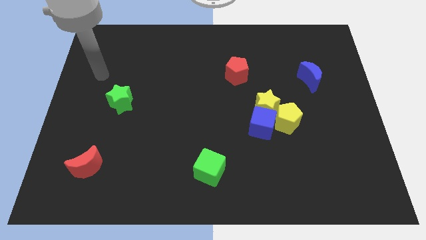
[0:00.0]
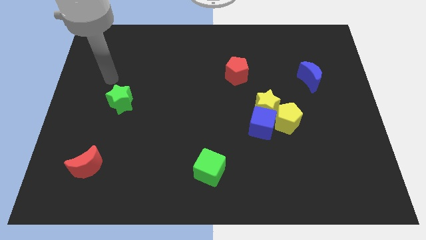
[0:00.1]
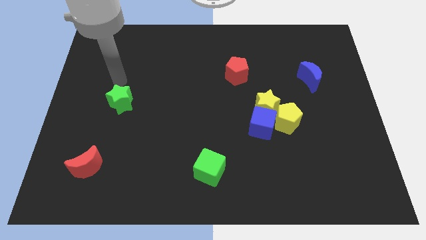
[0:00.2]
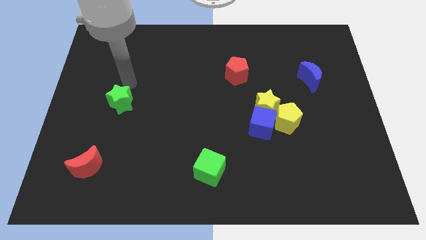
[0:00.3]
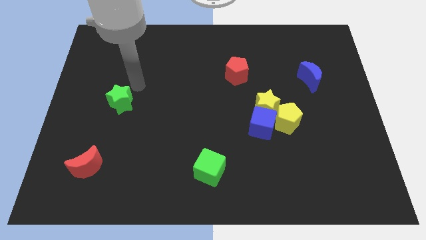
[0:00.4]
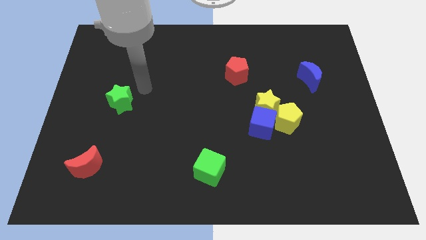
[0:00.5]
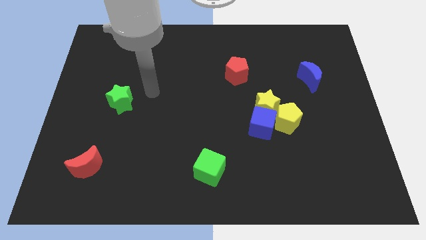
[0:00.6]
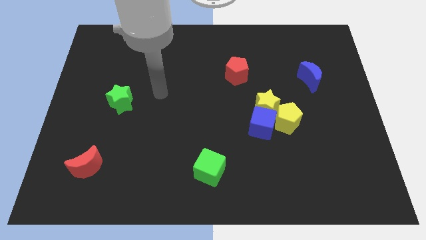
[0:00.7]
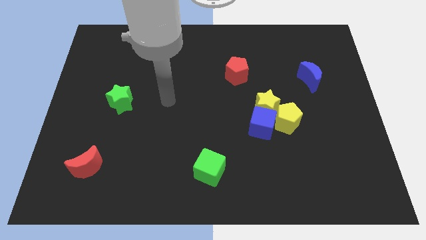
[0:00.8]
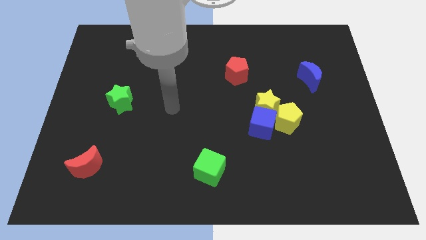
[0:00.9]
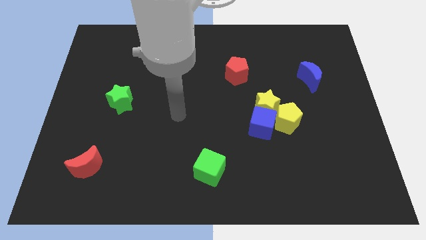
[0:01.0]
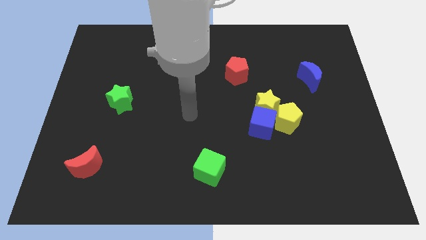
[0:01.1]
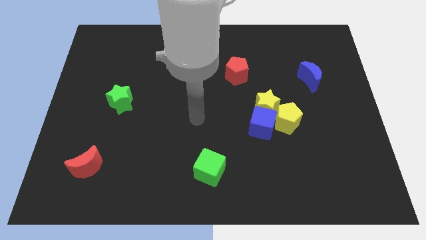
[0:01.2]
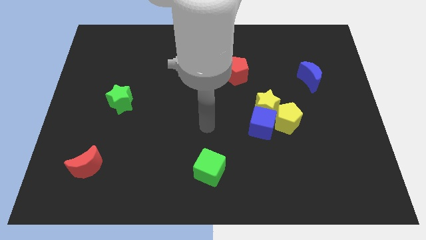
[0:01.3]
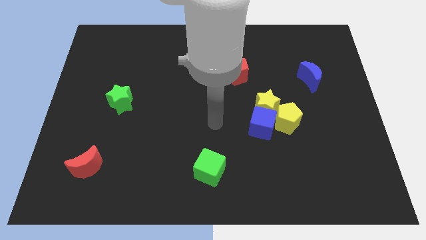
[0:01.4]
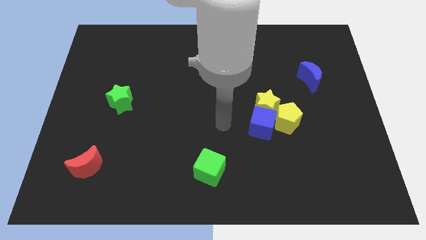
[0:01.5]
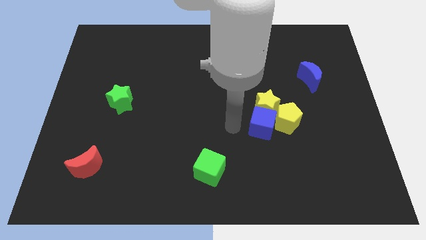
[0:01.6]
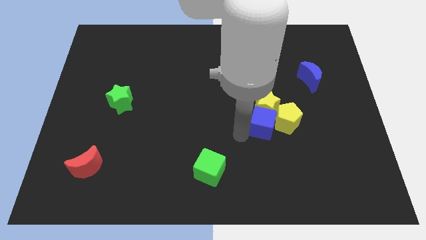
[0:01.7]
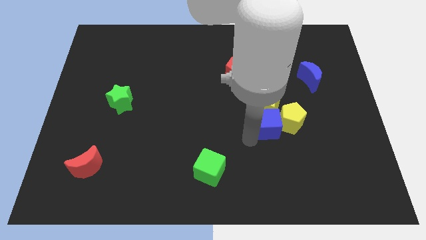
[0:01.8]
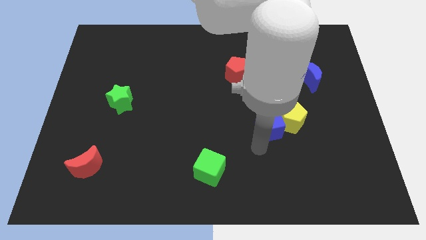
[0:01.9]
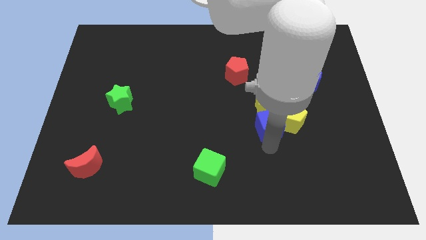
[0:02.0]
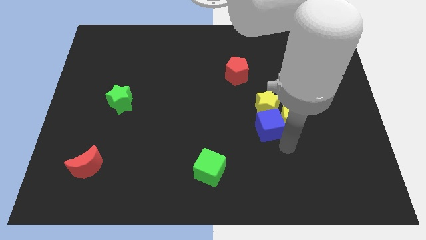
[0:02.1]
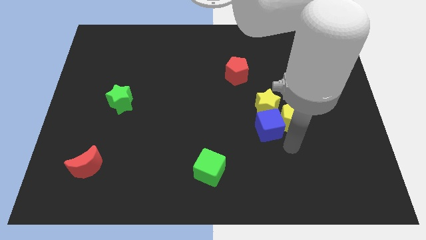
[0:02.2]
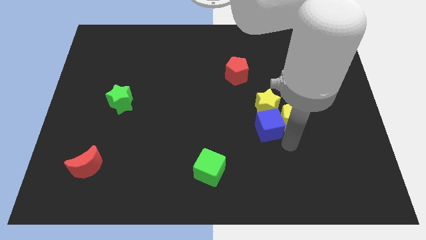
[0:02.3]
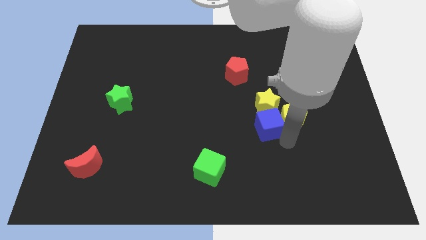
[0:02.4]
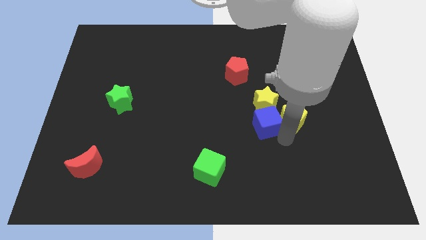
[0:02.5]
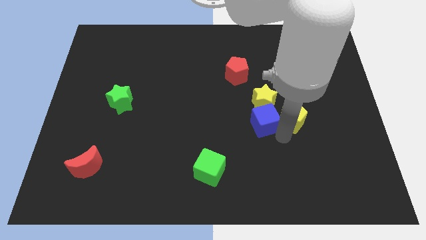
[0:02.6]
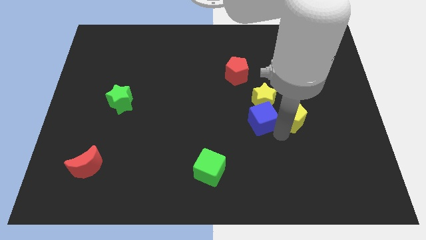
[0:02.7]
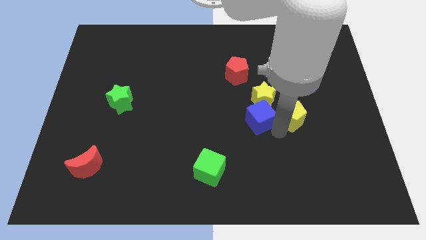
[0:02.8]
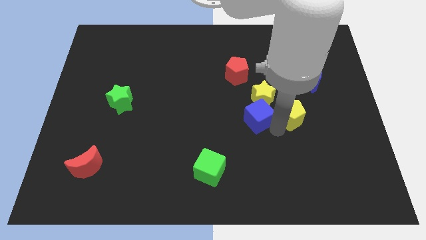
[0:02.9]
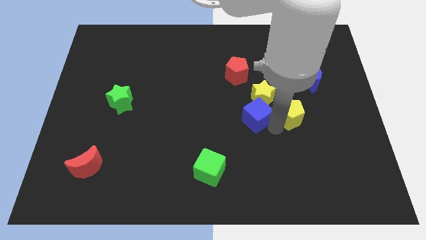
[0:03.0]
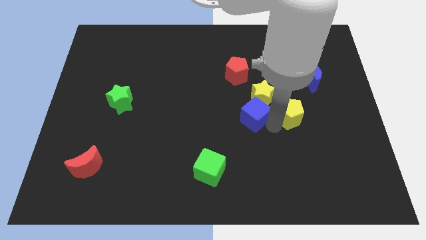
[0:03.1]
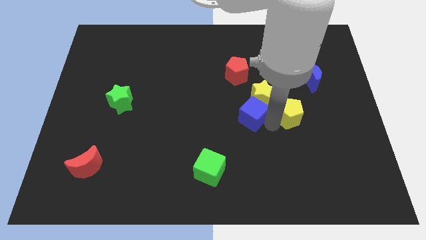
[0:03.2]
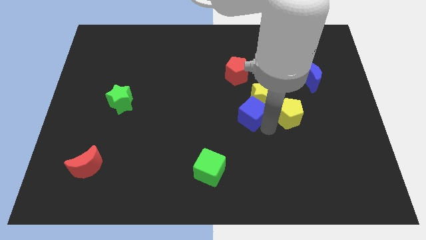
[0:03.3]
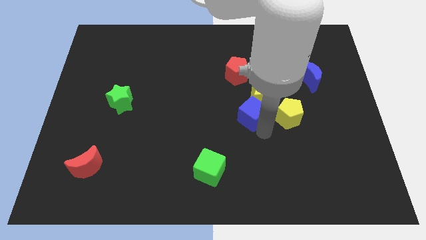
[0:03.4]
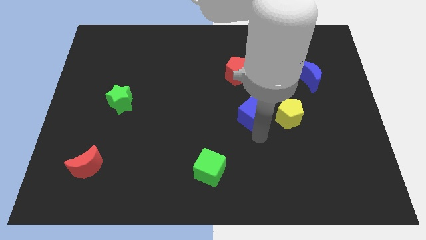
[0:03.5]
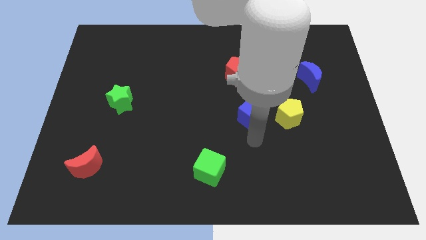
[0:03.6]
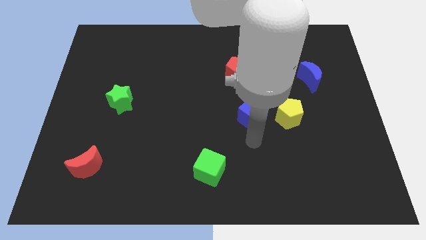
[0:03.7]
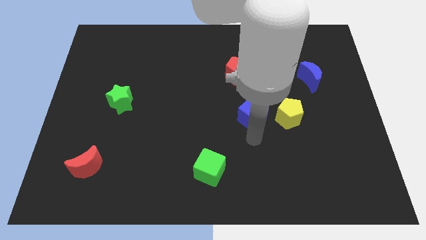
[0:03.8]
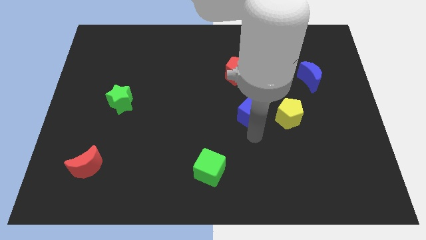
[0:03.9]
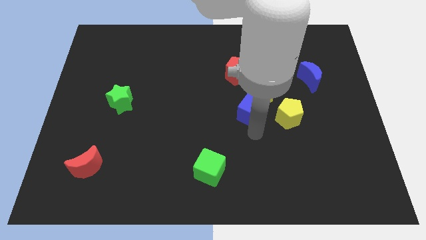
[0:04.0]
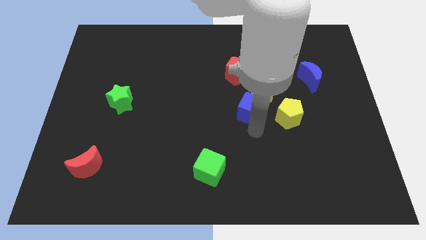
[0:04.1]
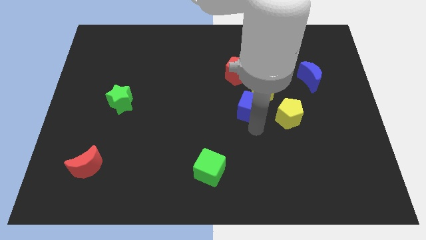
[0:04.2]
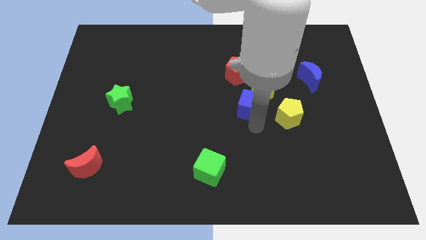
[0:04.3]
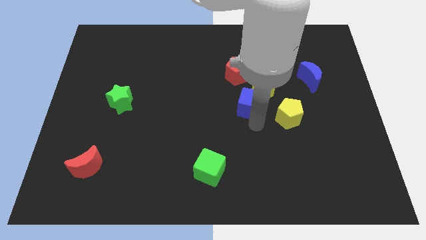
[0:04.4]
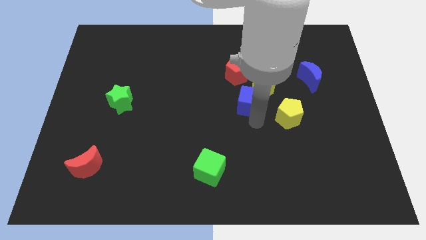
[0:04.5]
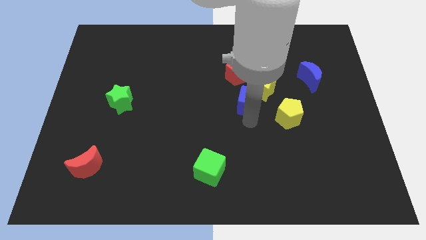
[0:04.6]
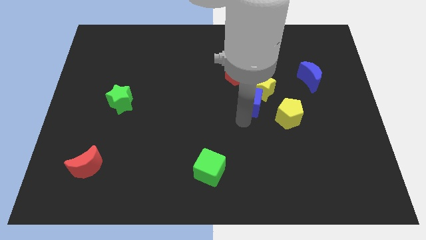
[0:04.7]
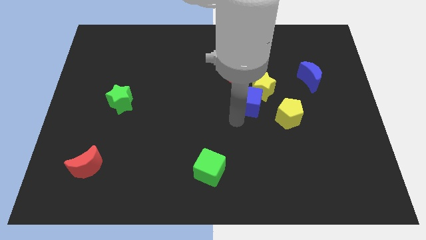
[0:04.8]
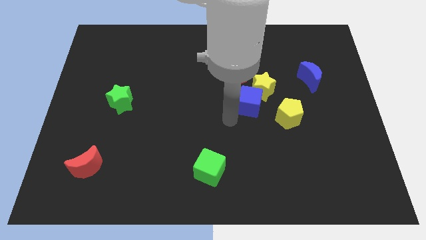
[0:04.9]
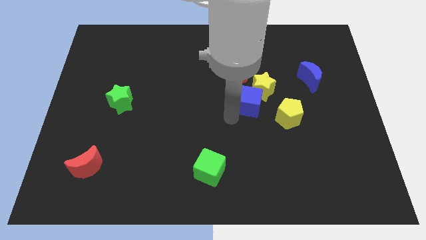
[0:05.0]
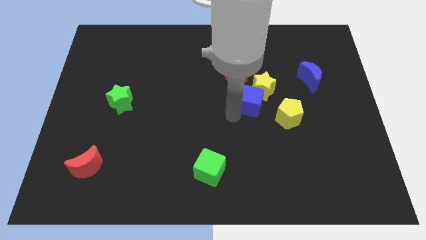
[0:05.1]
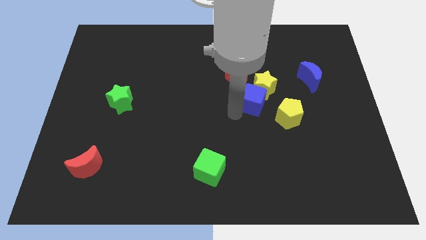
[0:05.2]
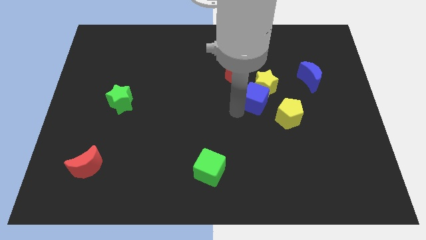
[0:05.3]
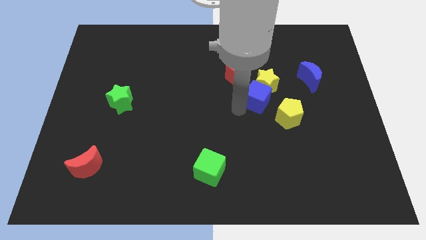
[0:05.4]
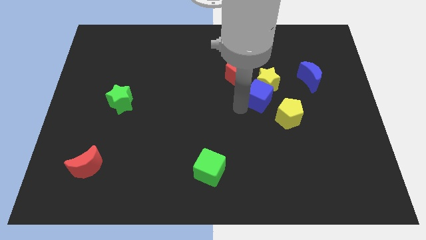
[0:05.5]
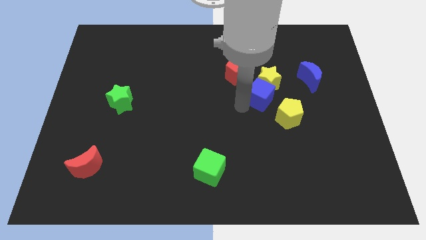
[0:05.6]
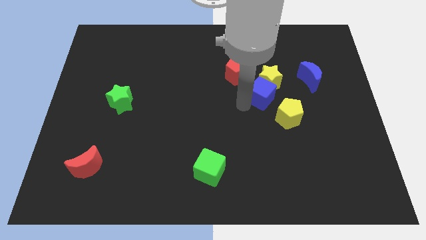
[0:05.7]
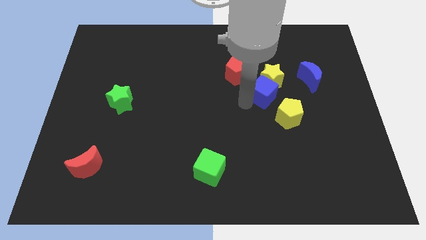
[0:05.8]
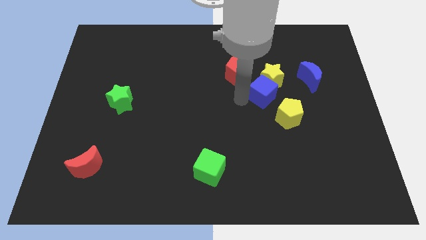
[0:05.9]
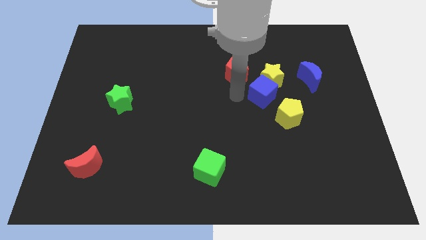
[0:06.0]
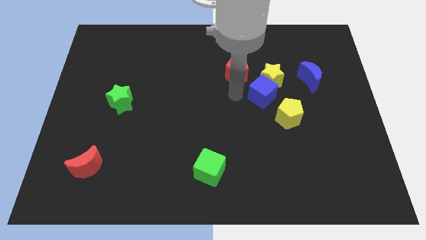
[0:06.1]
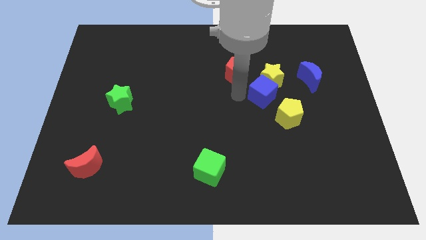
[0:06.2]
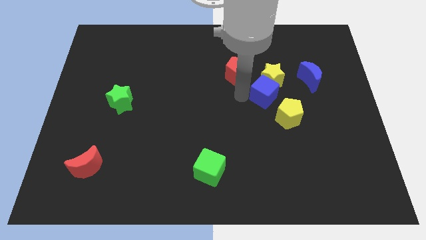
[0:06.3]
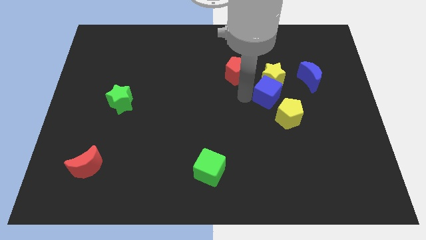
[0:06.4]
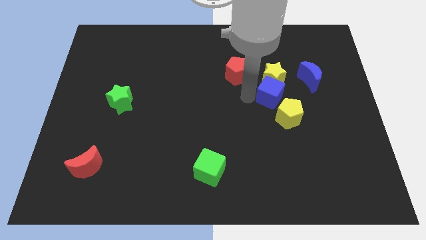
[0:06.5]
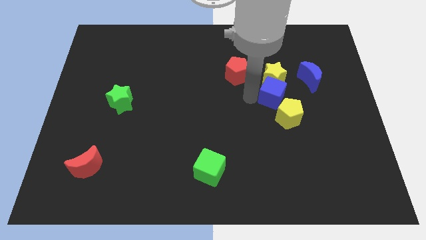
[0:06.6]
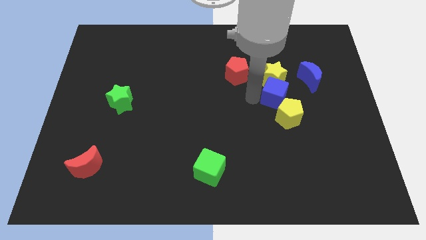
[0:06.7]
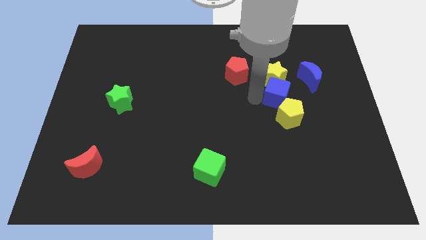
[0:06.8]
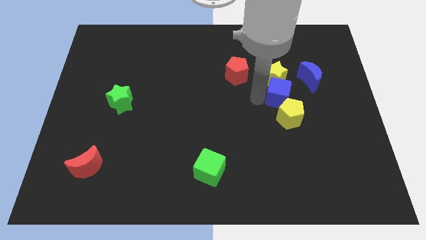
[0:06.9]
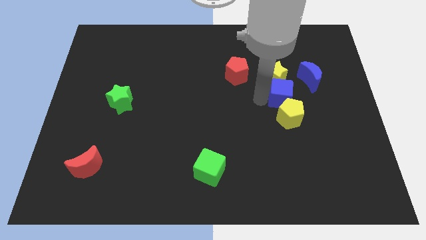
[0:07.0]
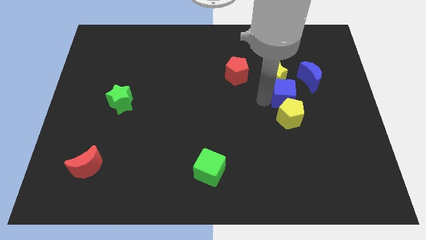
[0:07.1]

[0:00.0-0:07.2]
slide the blue cube to the top right side of the yellow pentagon

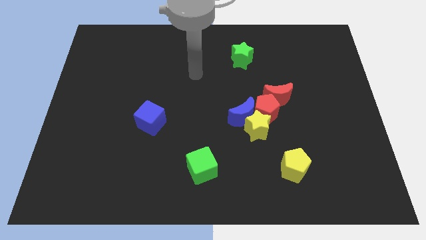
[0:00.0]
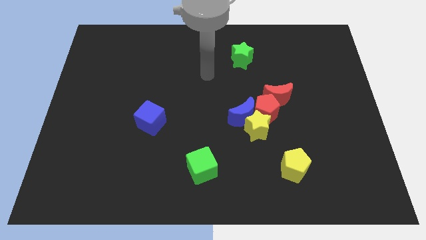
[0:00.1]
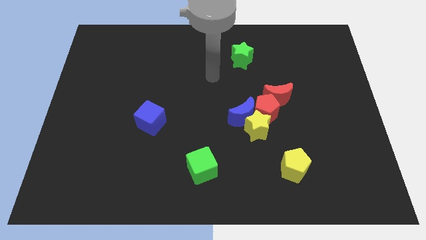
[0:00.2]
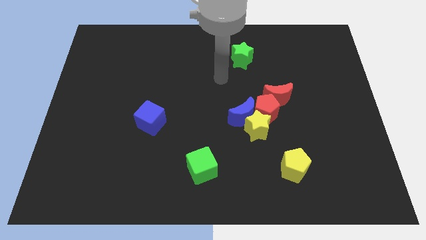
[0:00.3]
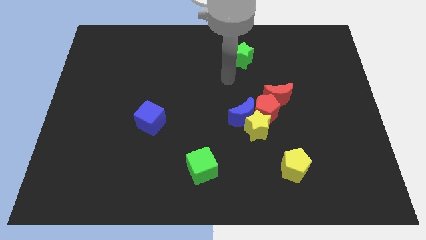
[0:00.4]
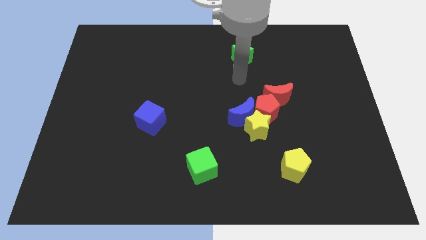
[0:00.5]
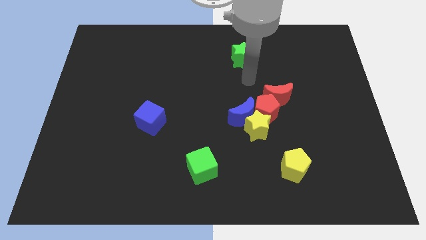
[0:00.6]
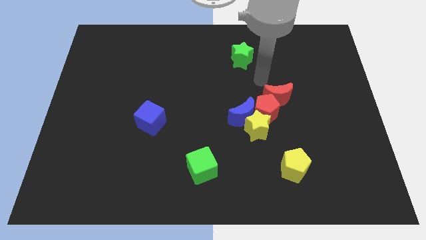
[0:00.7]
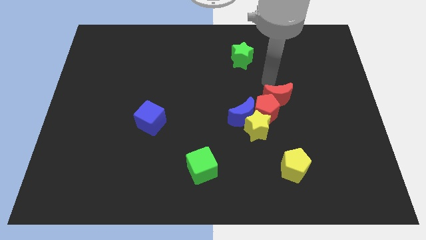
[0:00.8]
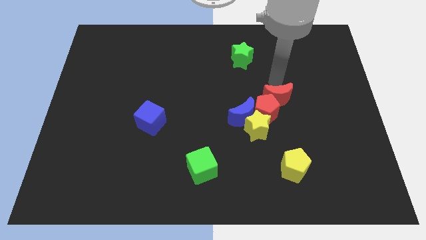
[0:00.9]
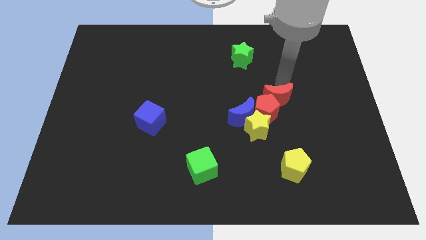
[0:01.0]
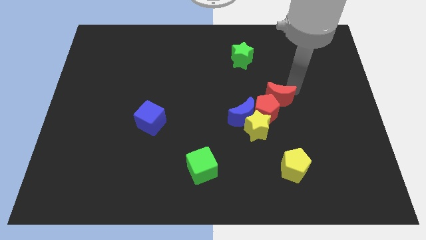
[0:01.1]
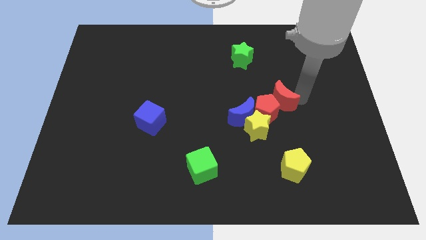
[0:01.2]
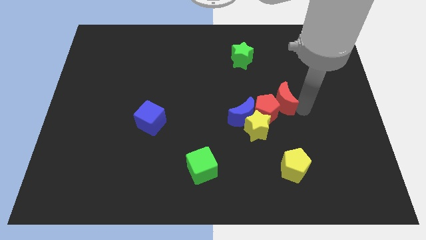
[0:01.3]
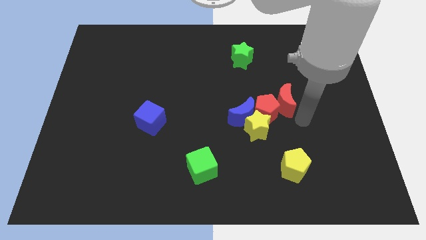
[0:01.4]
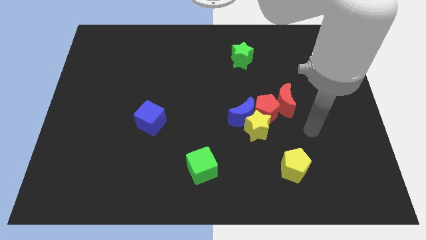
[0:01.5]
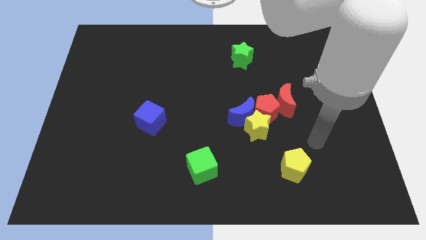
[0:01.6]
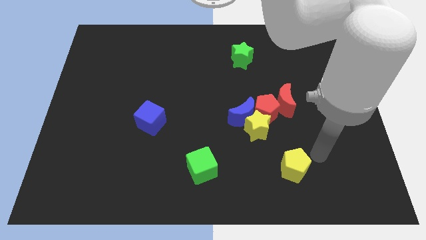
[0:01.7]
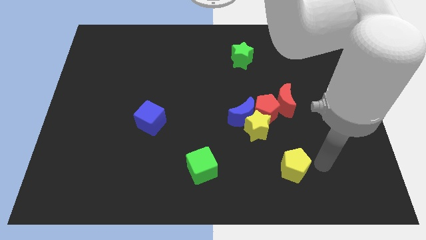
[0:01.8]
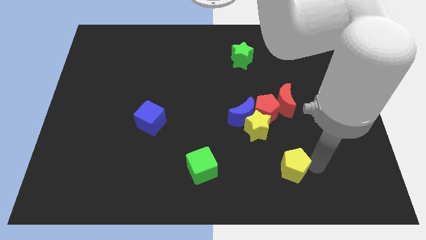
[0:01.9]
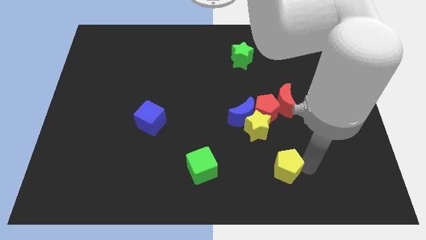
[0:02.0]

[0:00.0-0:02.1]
move the yellow pentagon to the bottom of the yellow star
